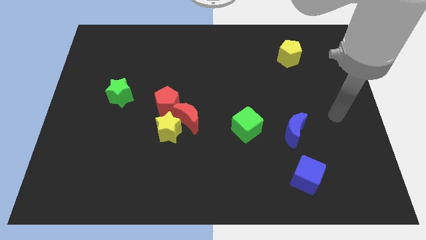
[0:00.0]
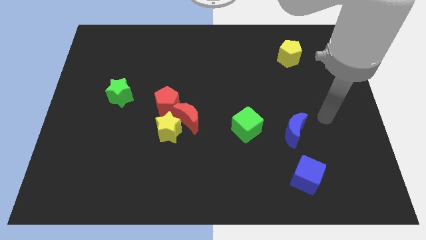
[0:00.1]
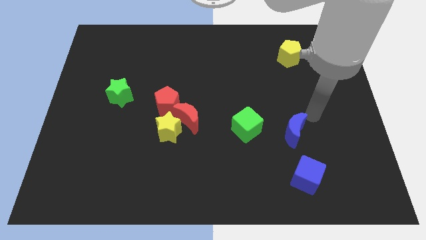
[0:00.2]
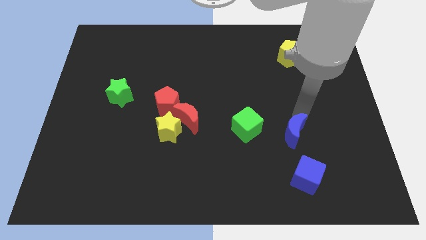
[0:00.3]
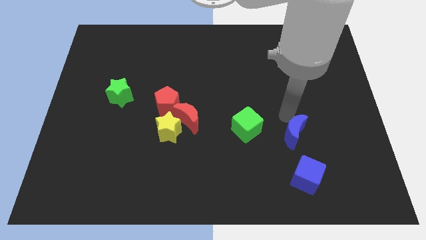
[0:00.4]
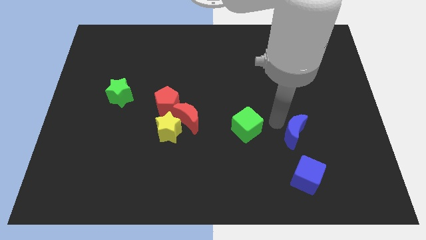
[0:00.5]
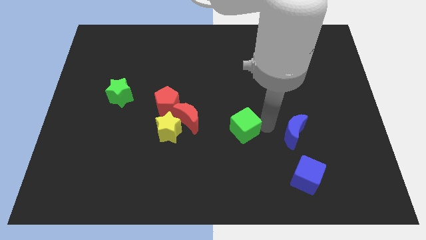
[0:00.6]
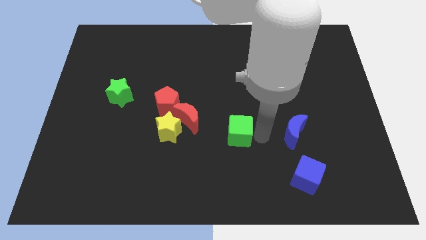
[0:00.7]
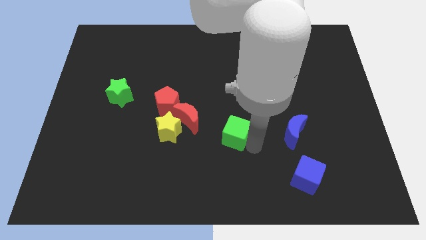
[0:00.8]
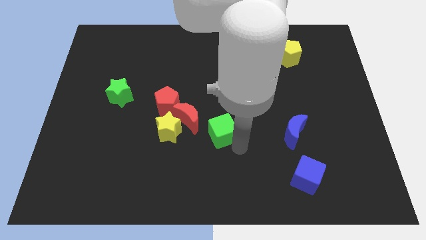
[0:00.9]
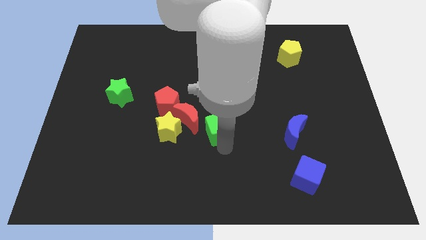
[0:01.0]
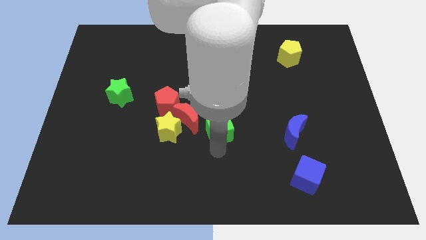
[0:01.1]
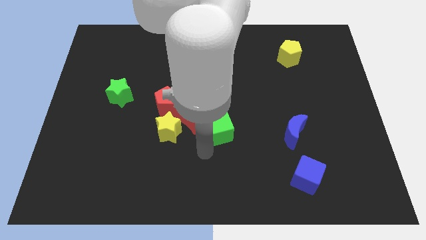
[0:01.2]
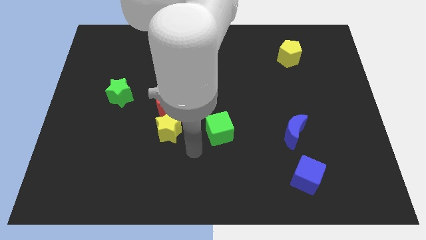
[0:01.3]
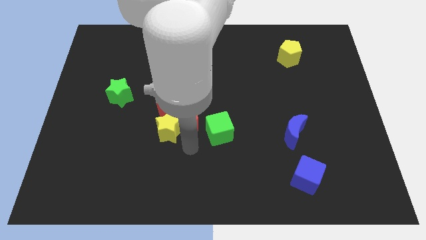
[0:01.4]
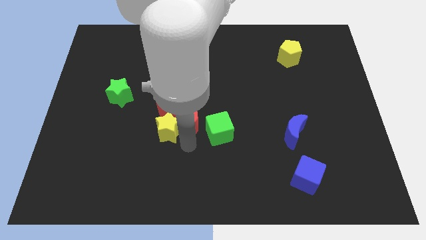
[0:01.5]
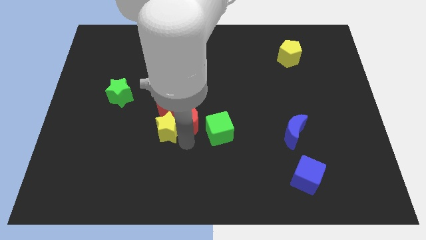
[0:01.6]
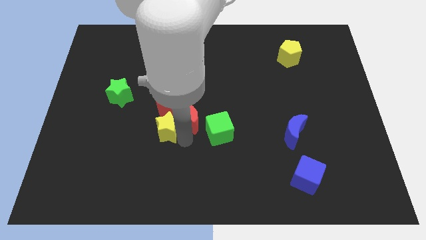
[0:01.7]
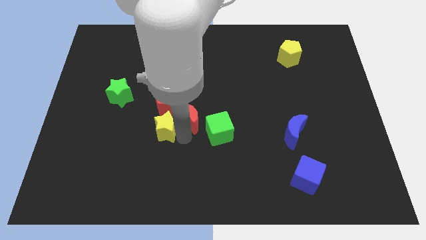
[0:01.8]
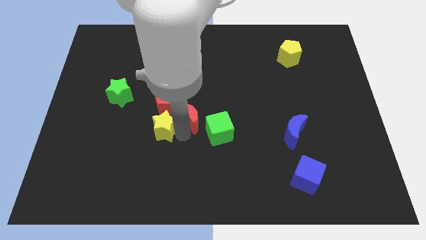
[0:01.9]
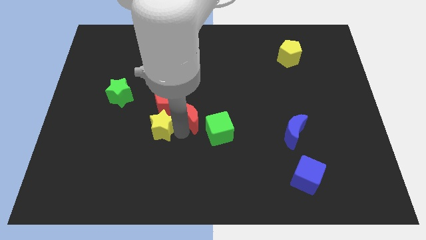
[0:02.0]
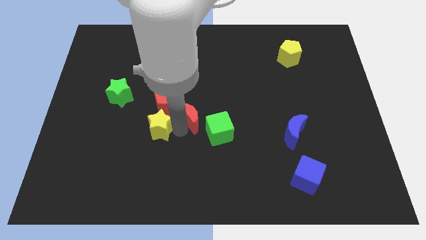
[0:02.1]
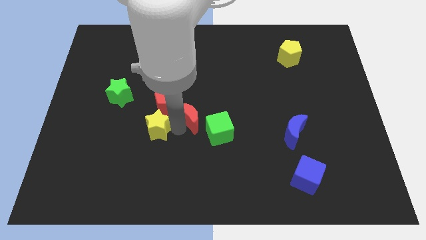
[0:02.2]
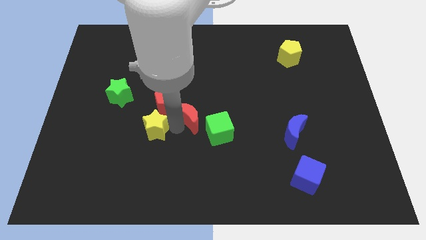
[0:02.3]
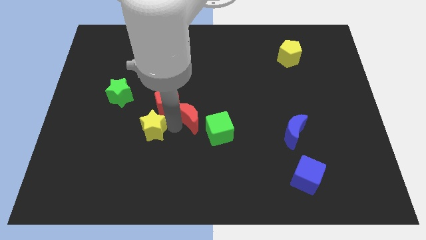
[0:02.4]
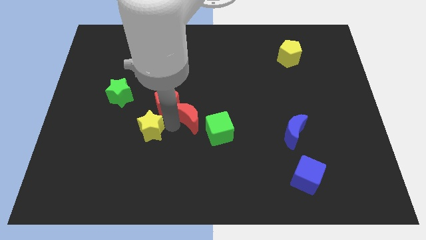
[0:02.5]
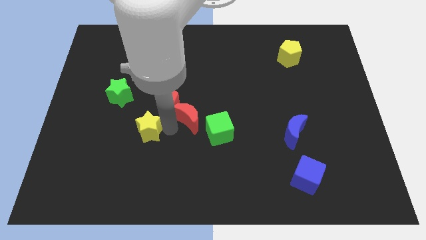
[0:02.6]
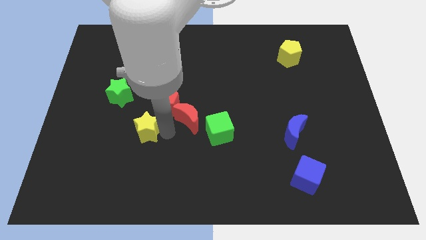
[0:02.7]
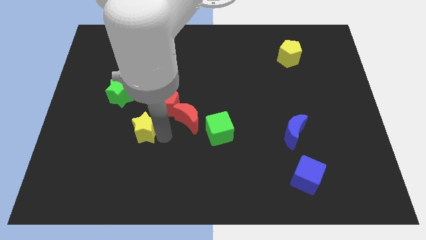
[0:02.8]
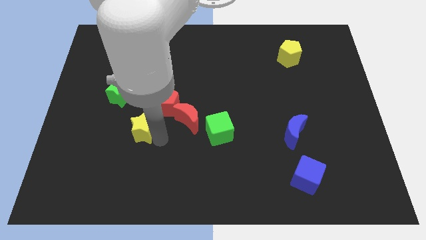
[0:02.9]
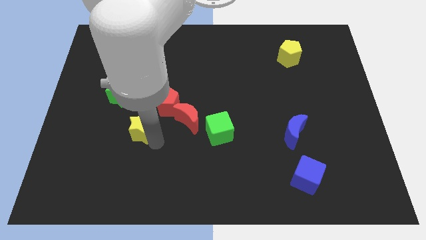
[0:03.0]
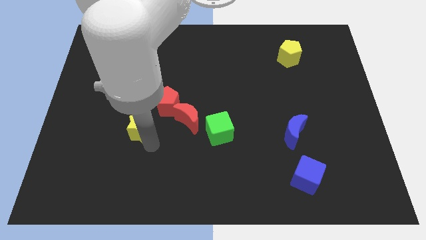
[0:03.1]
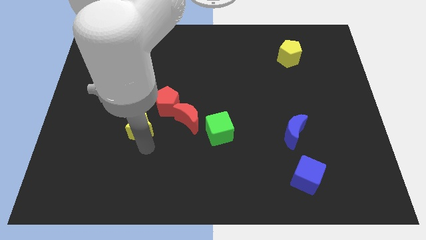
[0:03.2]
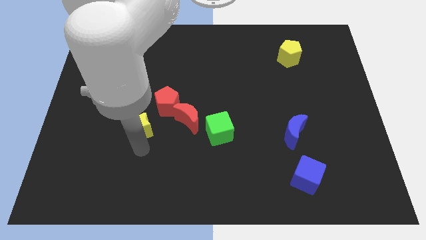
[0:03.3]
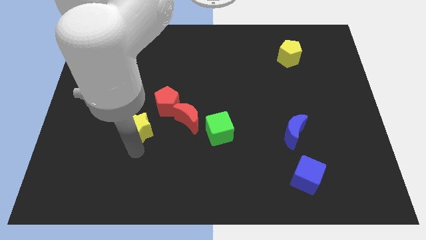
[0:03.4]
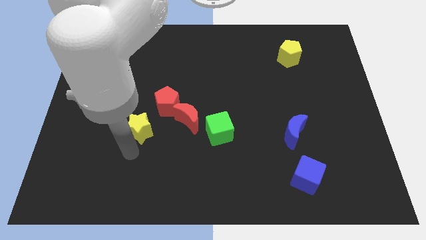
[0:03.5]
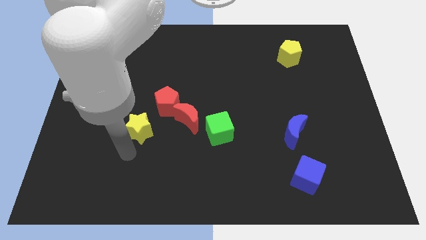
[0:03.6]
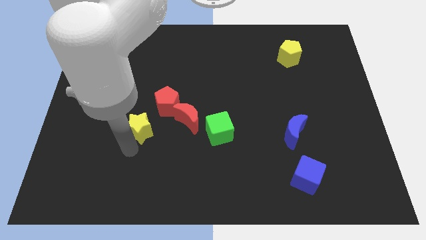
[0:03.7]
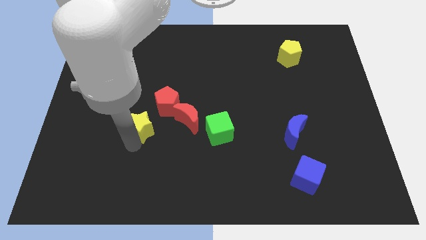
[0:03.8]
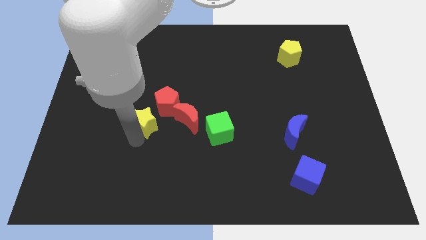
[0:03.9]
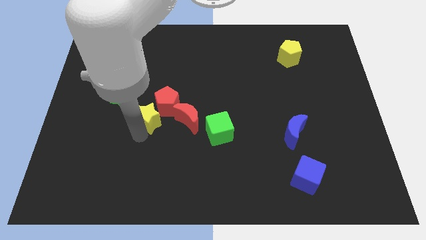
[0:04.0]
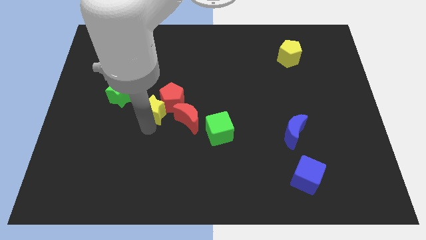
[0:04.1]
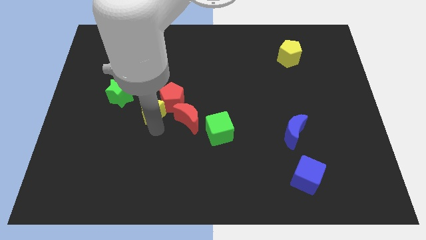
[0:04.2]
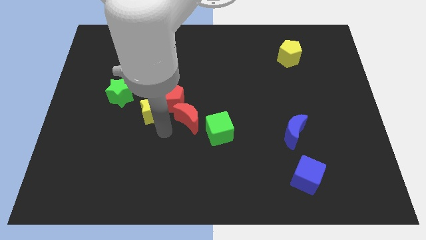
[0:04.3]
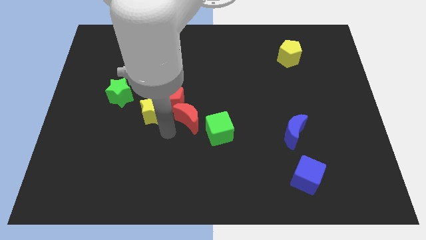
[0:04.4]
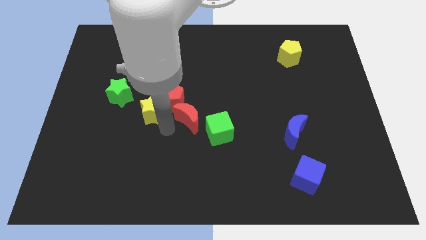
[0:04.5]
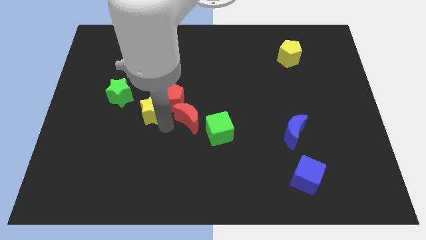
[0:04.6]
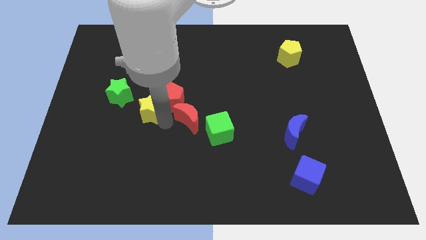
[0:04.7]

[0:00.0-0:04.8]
push the yellow star a little bit upwards and left

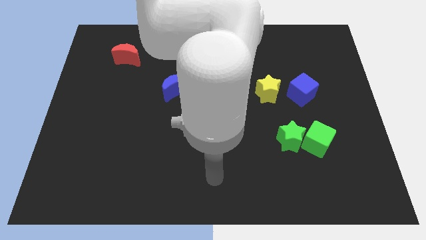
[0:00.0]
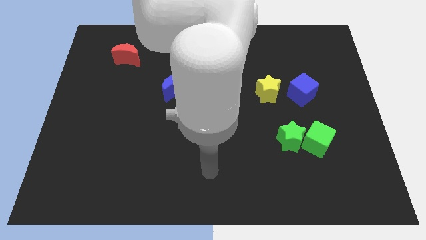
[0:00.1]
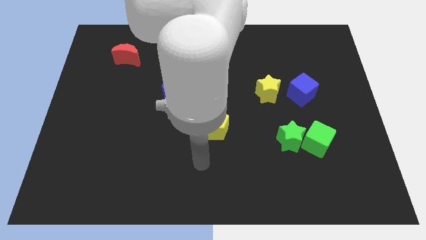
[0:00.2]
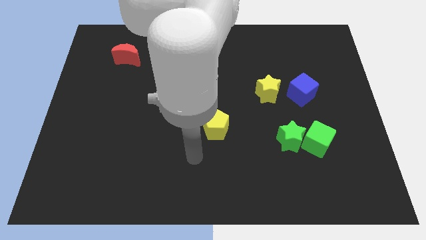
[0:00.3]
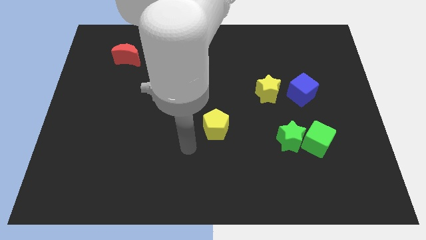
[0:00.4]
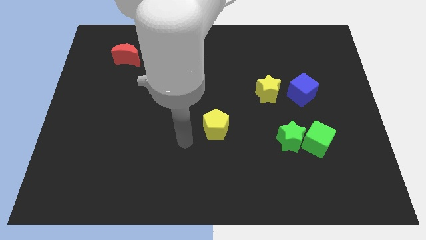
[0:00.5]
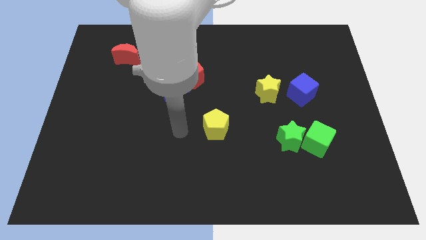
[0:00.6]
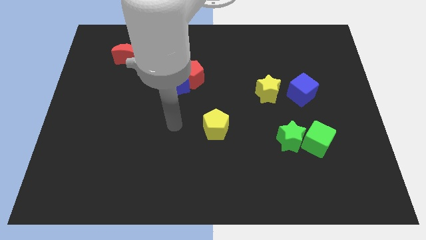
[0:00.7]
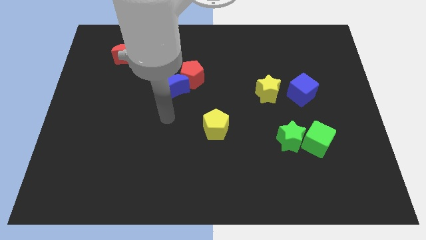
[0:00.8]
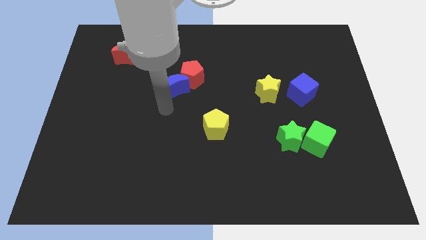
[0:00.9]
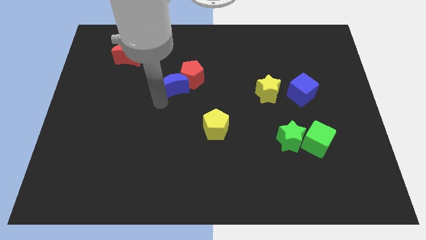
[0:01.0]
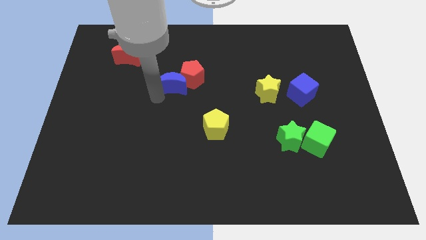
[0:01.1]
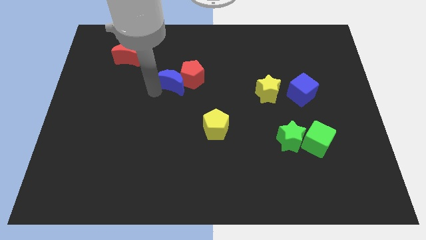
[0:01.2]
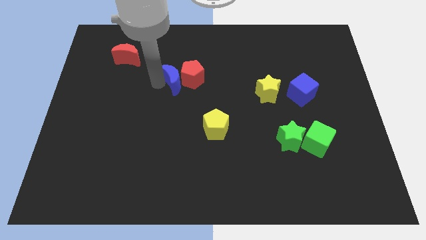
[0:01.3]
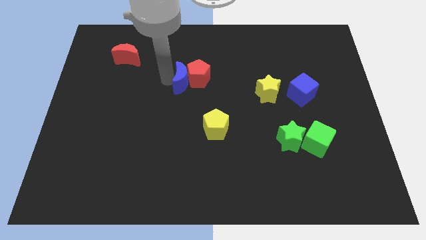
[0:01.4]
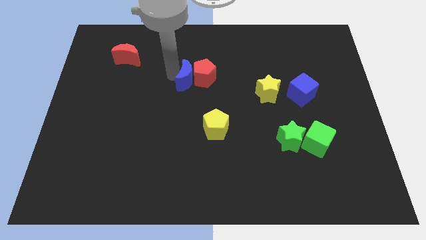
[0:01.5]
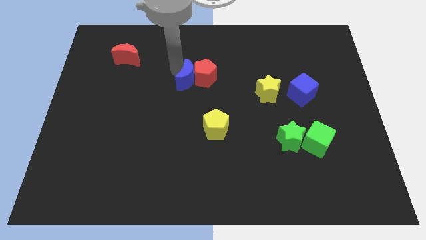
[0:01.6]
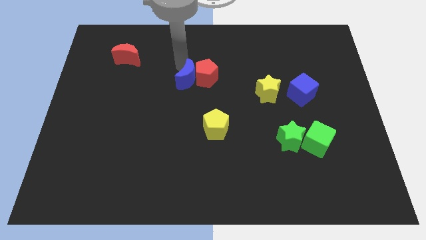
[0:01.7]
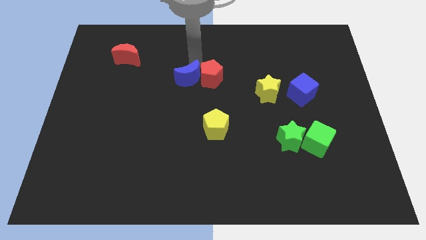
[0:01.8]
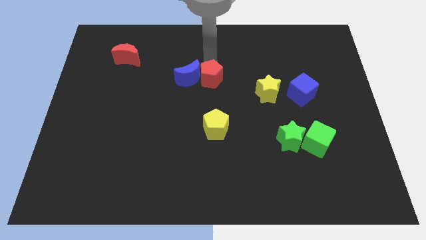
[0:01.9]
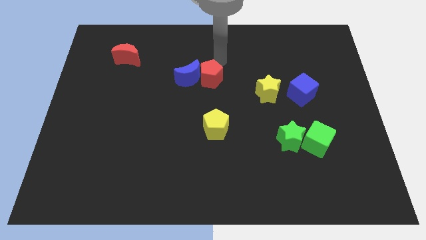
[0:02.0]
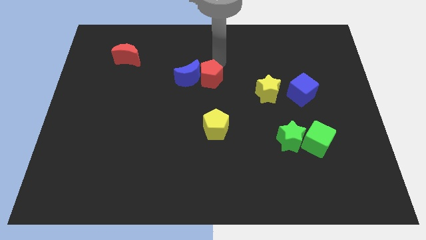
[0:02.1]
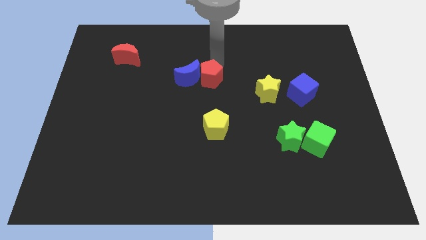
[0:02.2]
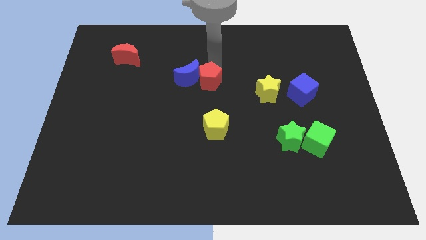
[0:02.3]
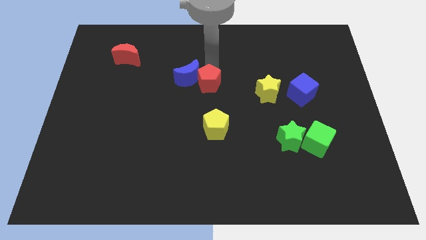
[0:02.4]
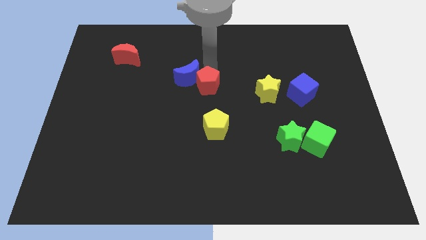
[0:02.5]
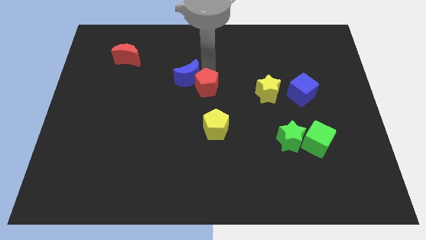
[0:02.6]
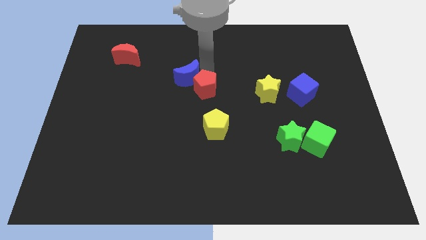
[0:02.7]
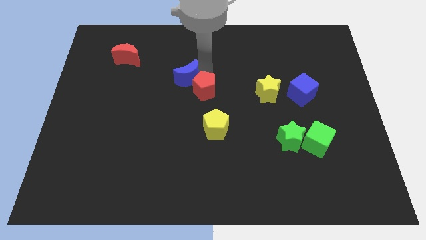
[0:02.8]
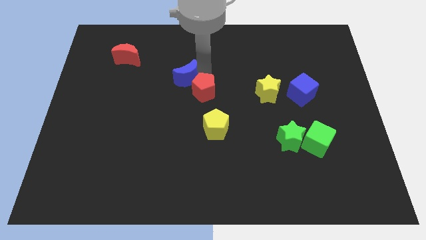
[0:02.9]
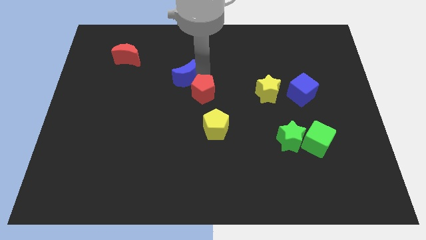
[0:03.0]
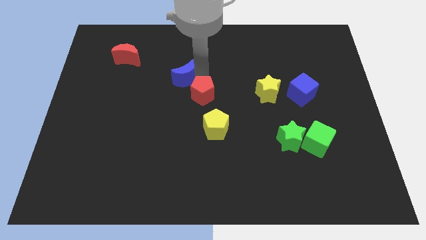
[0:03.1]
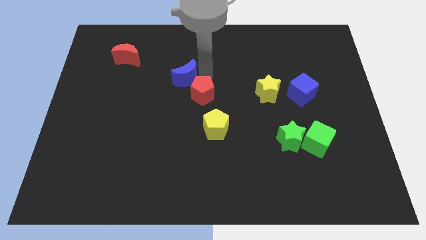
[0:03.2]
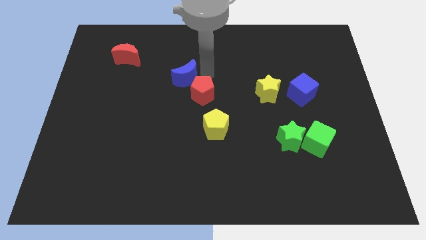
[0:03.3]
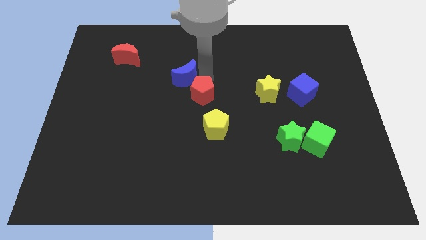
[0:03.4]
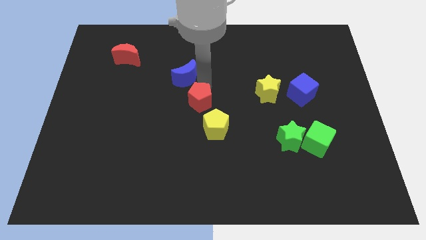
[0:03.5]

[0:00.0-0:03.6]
slightly slide the red pentagon downwards
